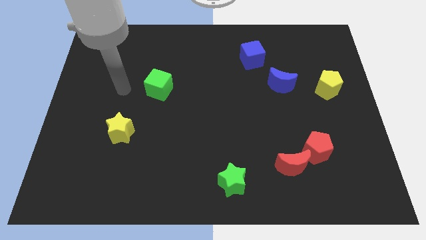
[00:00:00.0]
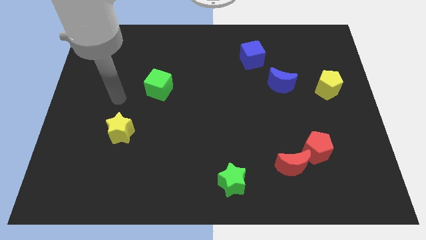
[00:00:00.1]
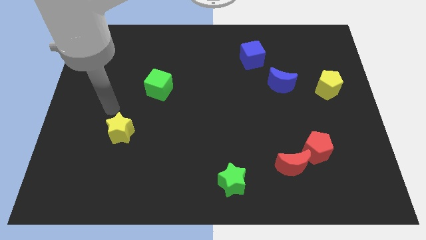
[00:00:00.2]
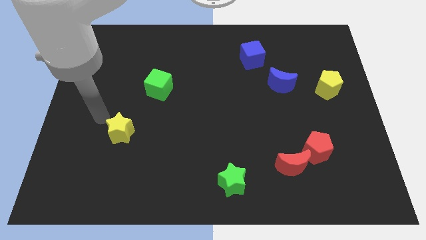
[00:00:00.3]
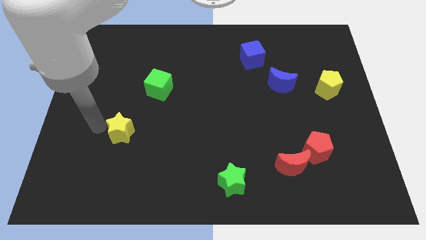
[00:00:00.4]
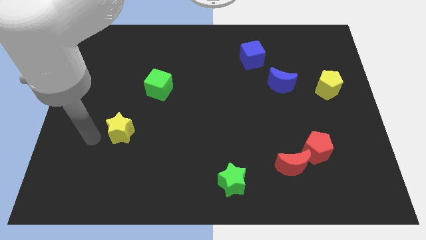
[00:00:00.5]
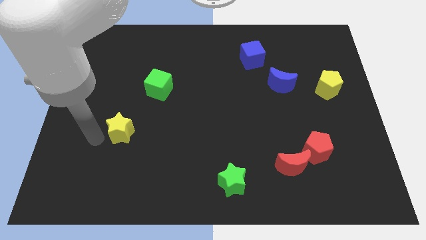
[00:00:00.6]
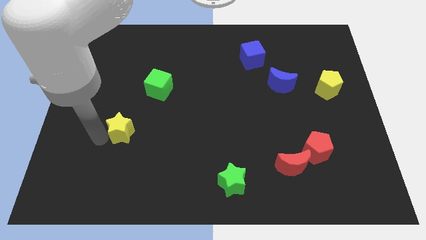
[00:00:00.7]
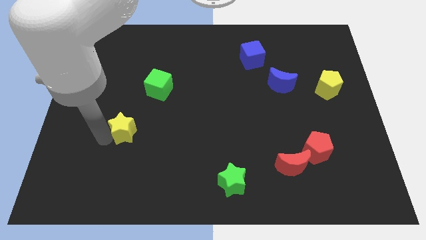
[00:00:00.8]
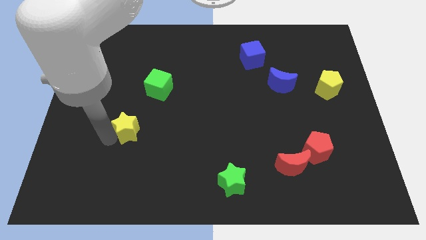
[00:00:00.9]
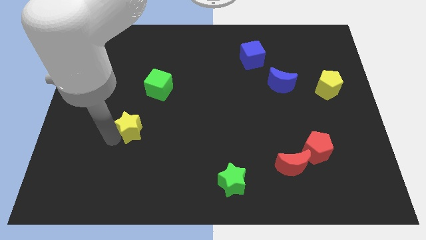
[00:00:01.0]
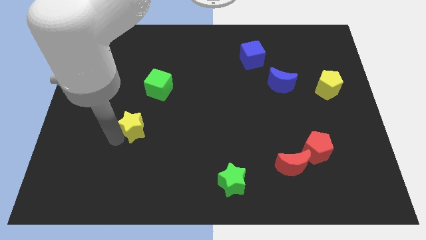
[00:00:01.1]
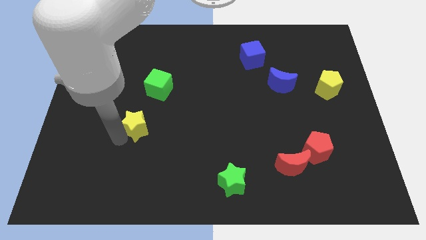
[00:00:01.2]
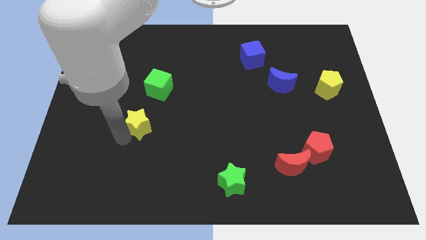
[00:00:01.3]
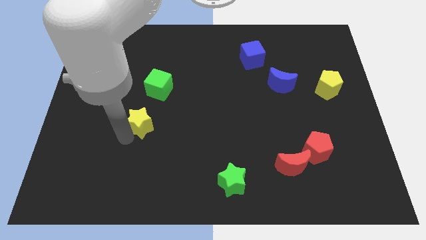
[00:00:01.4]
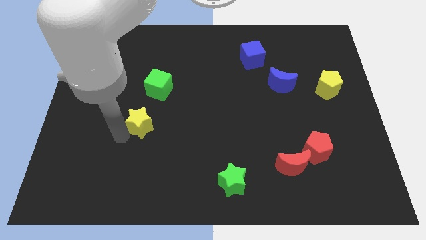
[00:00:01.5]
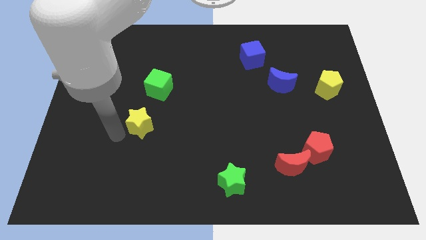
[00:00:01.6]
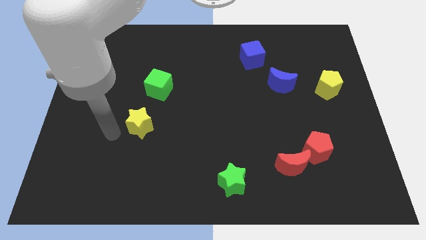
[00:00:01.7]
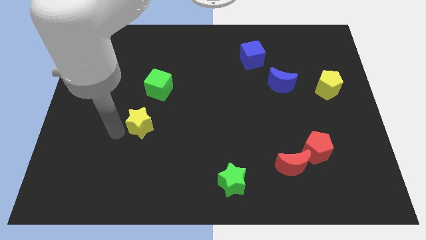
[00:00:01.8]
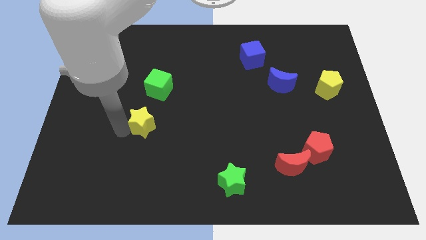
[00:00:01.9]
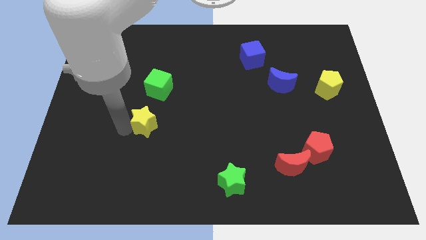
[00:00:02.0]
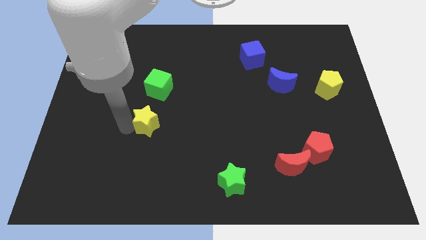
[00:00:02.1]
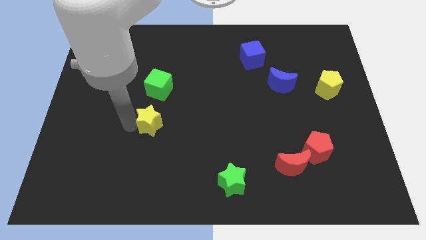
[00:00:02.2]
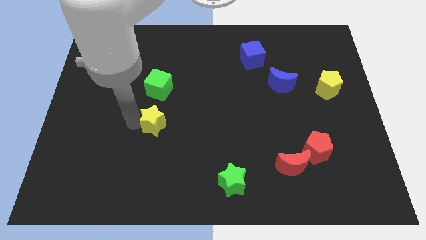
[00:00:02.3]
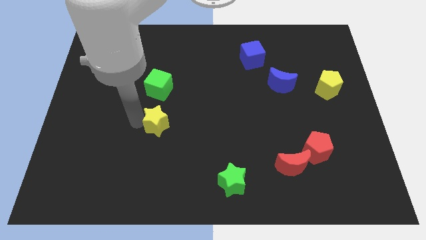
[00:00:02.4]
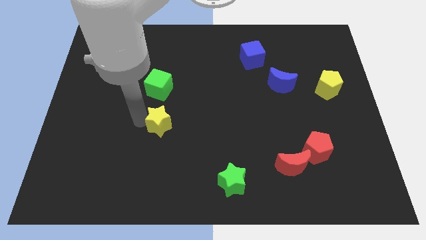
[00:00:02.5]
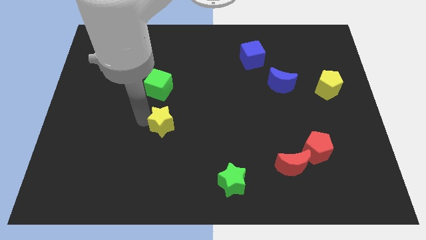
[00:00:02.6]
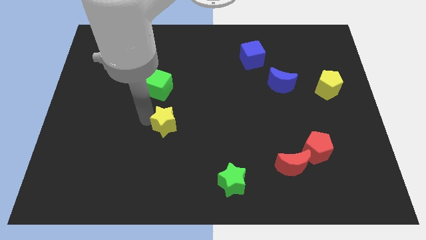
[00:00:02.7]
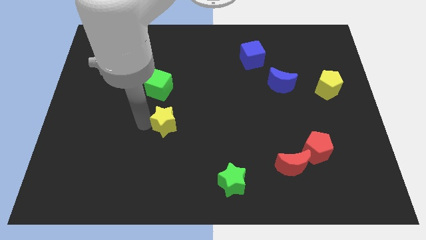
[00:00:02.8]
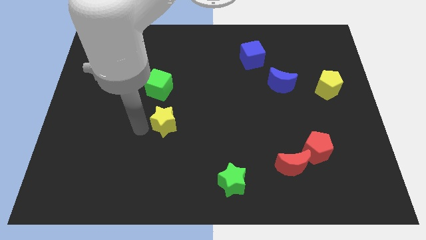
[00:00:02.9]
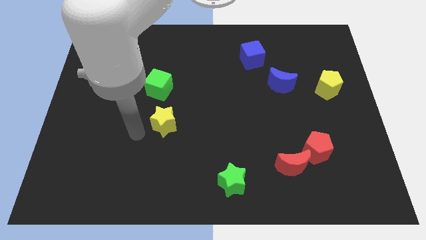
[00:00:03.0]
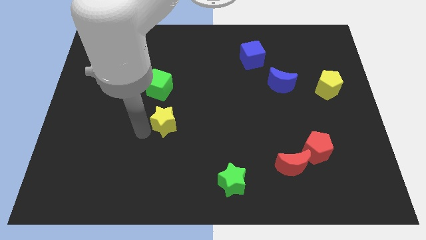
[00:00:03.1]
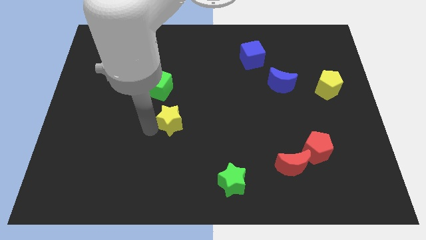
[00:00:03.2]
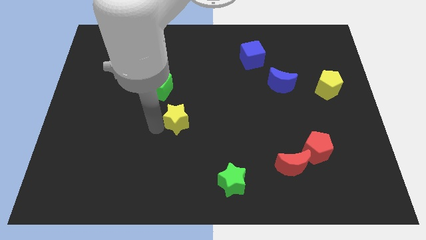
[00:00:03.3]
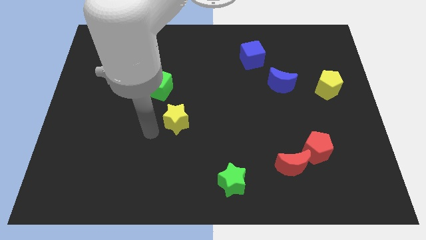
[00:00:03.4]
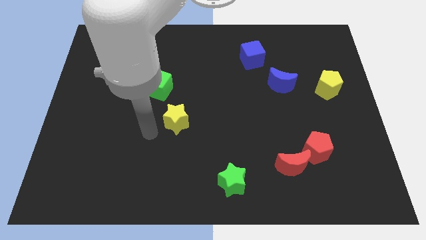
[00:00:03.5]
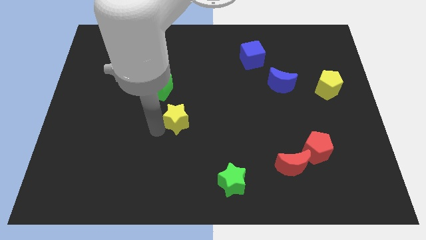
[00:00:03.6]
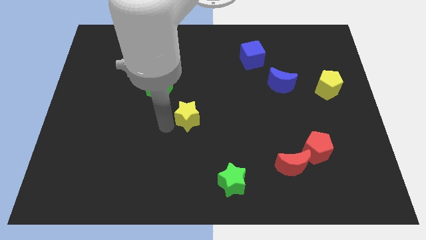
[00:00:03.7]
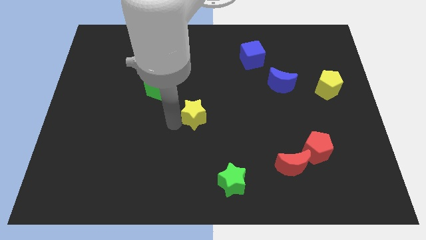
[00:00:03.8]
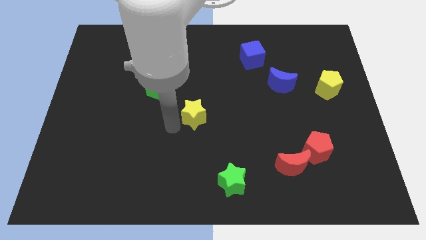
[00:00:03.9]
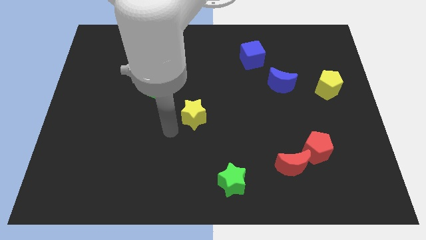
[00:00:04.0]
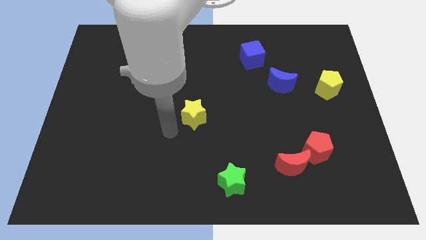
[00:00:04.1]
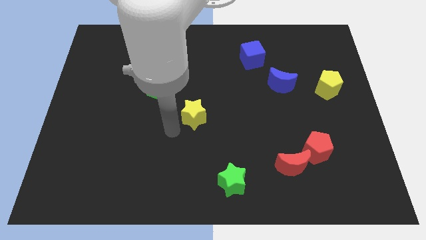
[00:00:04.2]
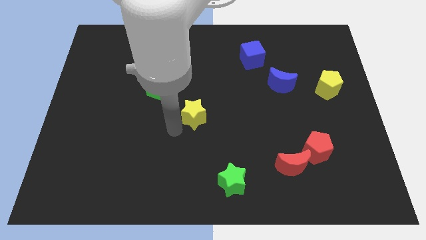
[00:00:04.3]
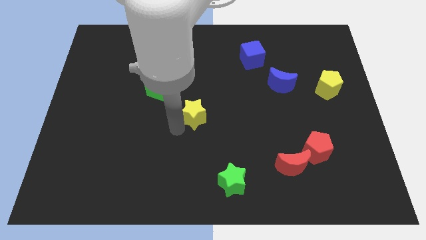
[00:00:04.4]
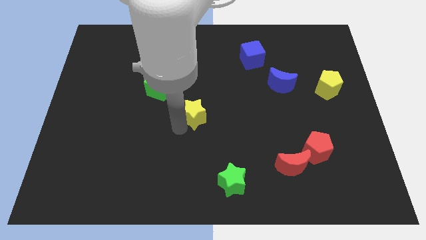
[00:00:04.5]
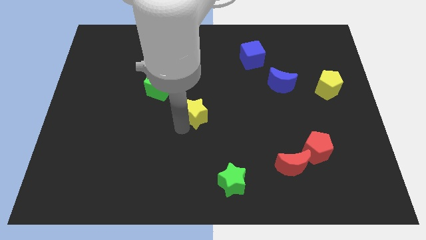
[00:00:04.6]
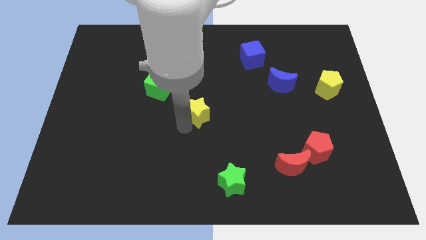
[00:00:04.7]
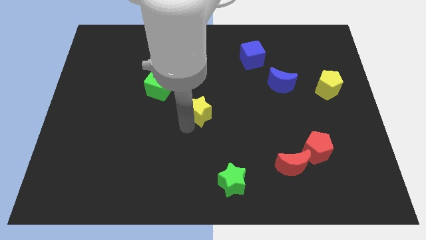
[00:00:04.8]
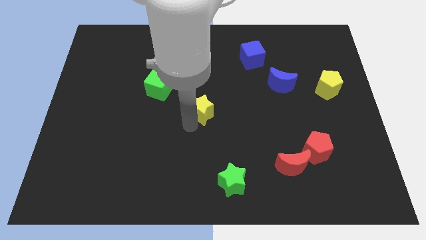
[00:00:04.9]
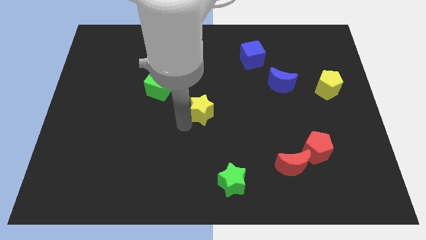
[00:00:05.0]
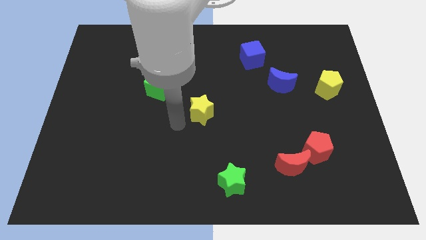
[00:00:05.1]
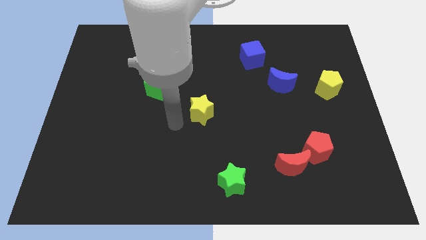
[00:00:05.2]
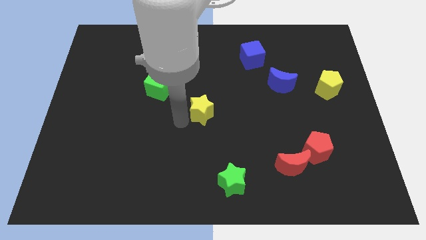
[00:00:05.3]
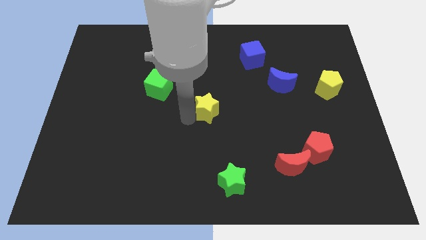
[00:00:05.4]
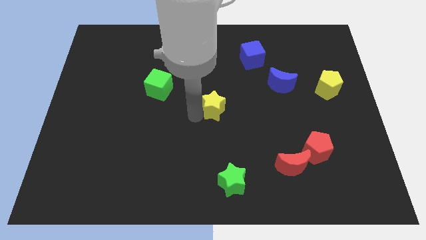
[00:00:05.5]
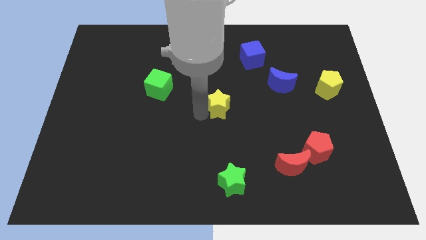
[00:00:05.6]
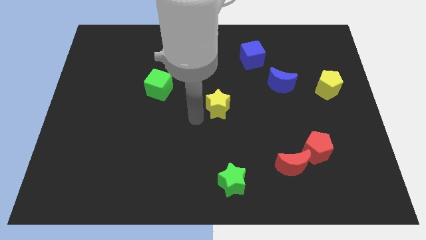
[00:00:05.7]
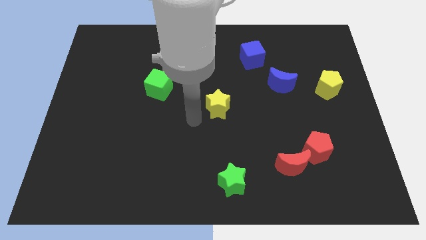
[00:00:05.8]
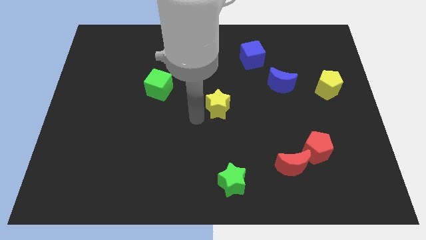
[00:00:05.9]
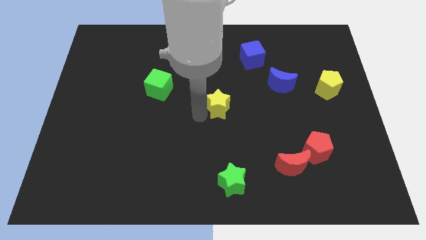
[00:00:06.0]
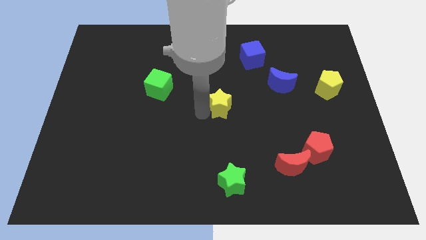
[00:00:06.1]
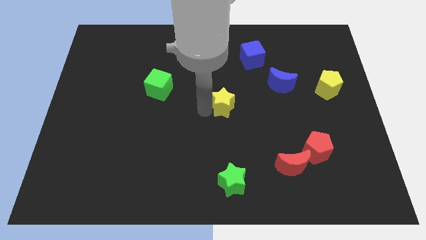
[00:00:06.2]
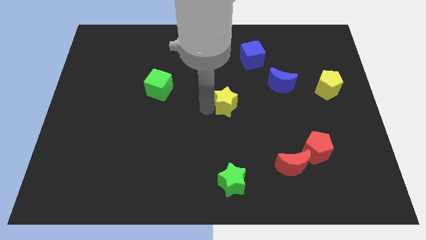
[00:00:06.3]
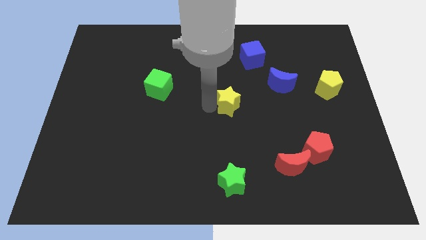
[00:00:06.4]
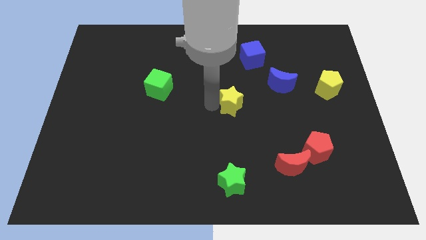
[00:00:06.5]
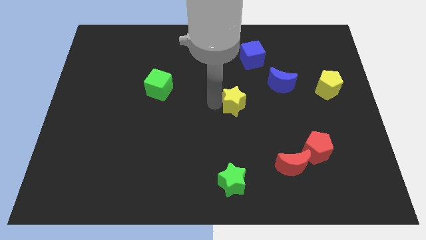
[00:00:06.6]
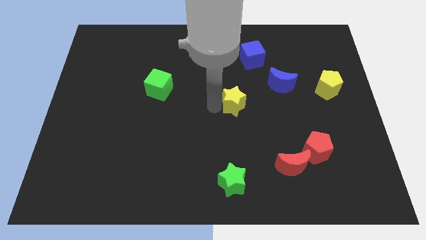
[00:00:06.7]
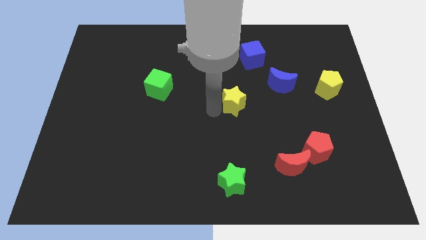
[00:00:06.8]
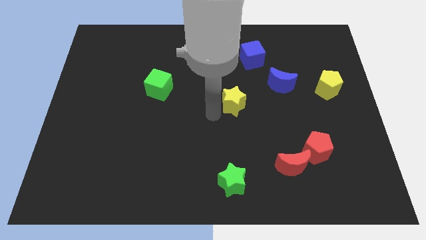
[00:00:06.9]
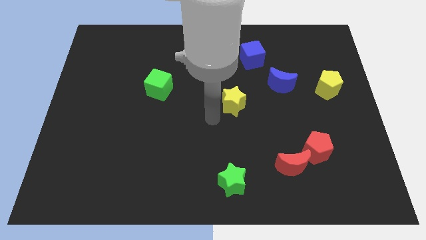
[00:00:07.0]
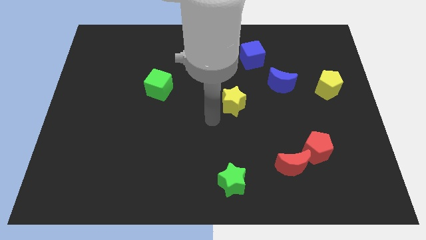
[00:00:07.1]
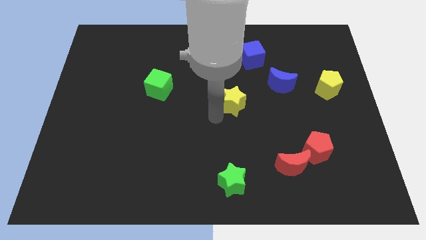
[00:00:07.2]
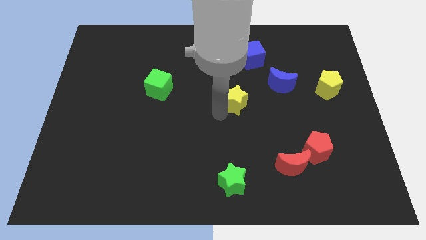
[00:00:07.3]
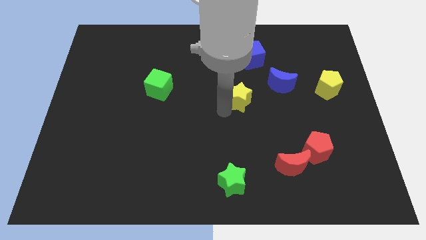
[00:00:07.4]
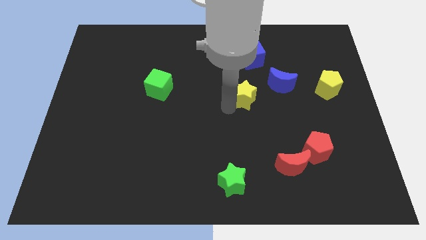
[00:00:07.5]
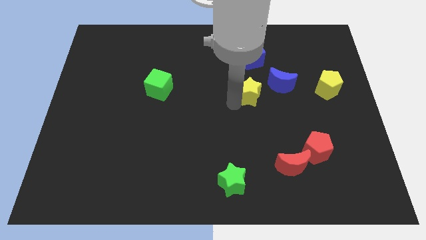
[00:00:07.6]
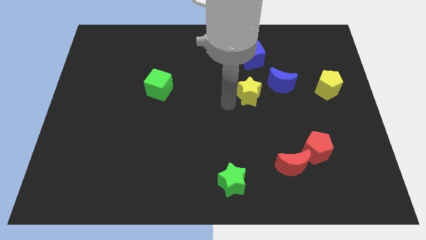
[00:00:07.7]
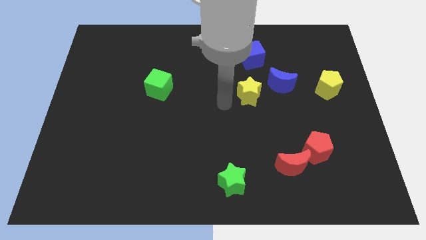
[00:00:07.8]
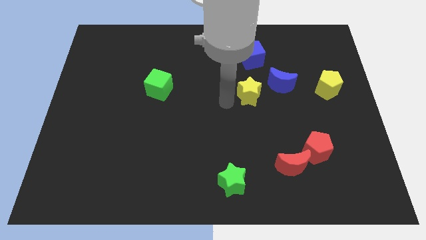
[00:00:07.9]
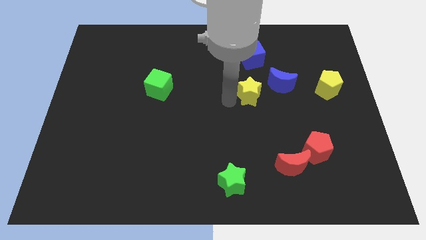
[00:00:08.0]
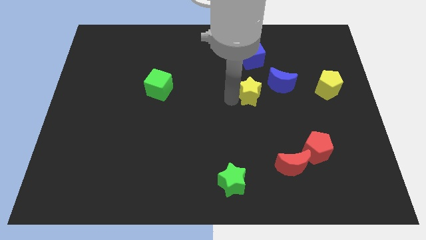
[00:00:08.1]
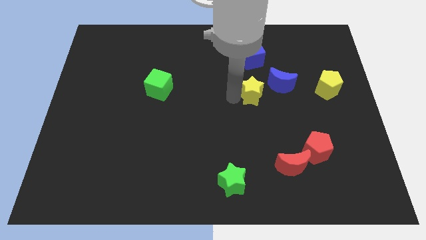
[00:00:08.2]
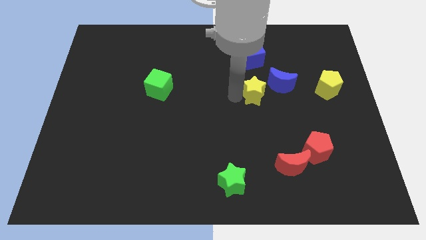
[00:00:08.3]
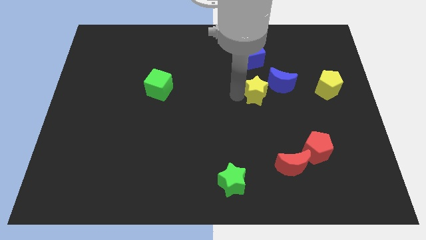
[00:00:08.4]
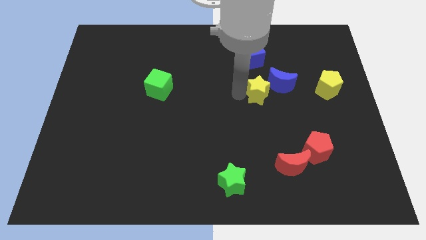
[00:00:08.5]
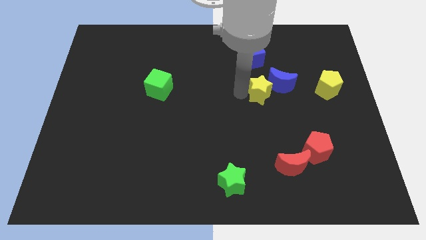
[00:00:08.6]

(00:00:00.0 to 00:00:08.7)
slide the yellow star close to the blue moon
